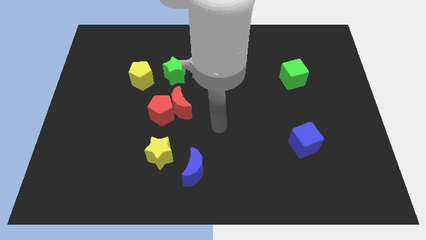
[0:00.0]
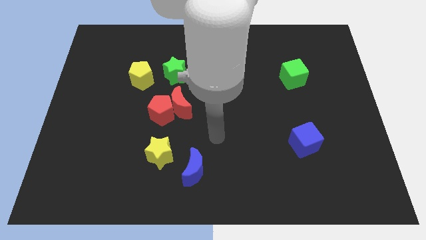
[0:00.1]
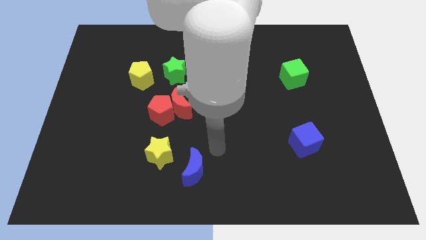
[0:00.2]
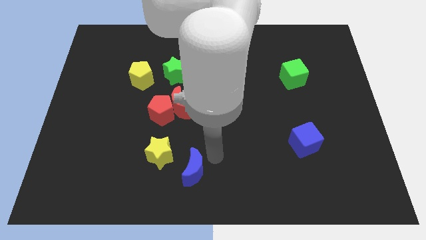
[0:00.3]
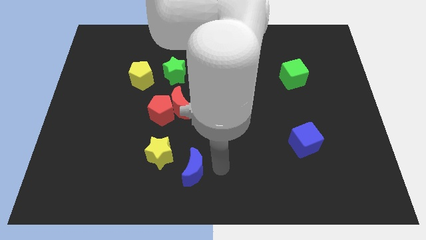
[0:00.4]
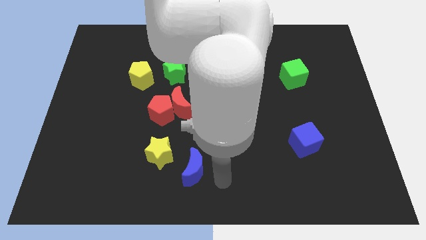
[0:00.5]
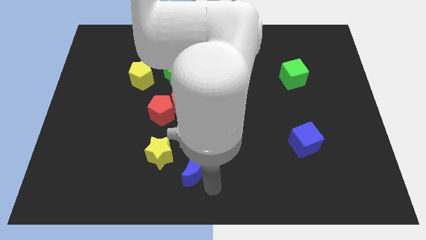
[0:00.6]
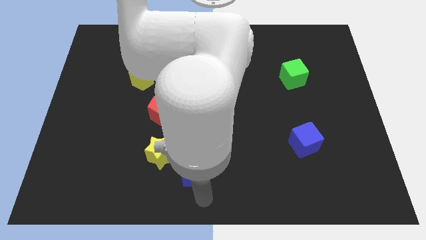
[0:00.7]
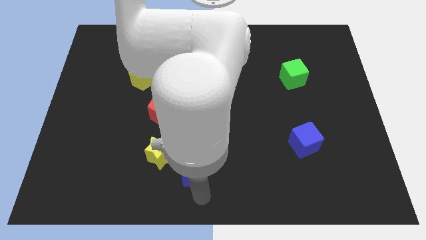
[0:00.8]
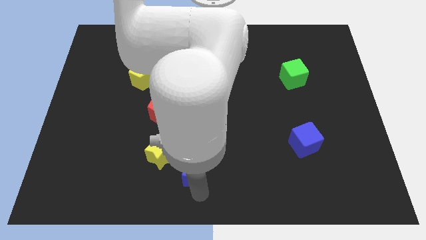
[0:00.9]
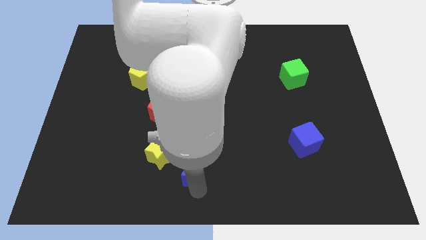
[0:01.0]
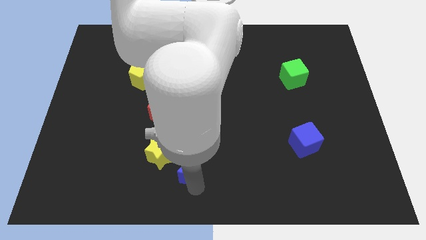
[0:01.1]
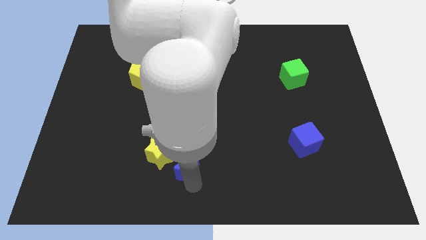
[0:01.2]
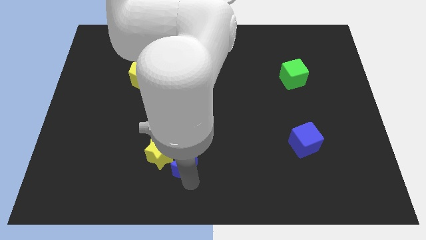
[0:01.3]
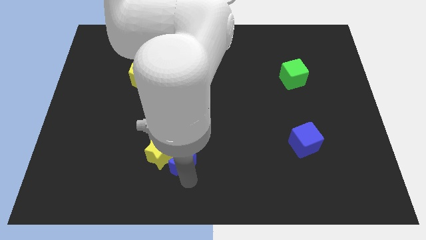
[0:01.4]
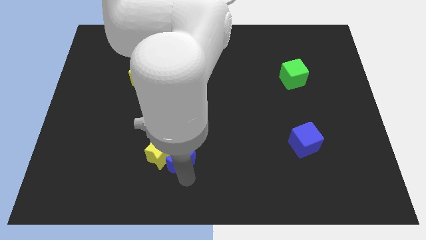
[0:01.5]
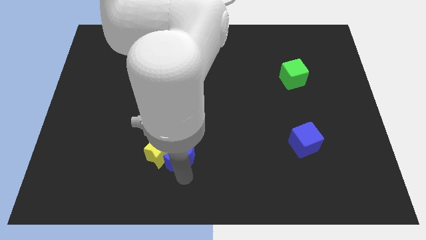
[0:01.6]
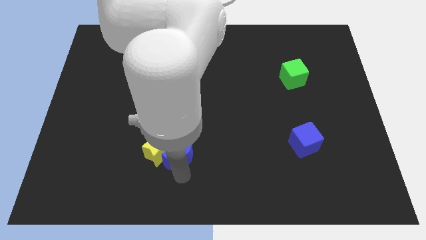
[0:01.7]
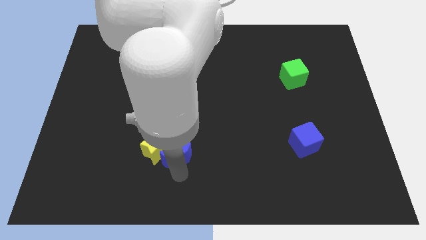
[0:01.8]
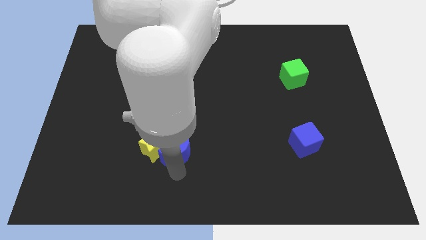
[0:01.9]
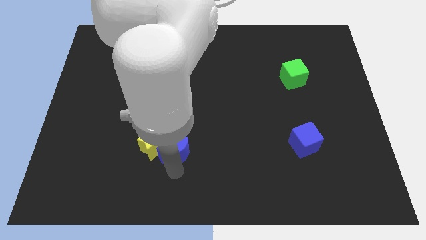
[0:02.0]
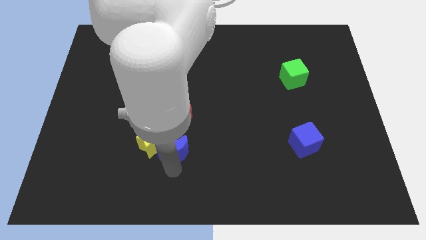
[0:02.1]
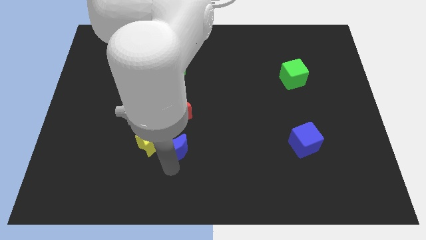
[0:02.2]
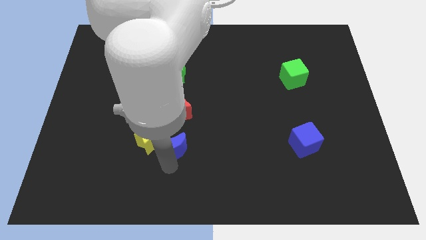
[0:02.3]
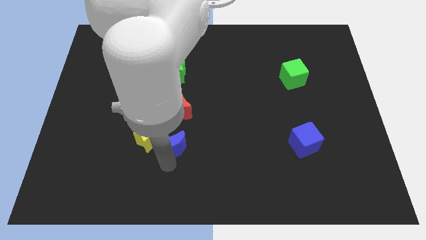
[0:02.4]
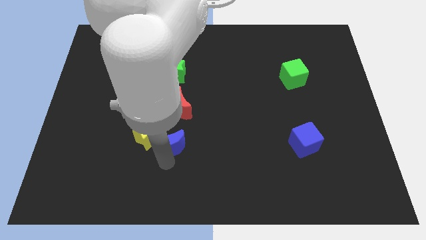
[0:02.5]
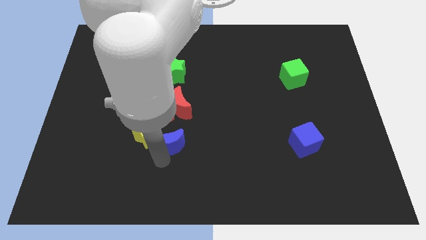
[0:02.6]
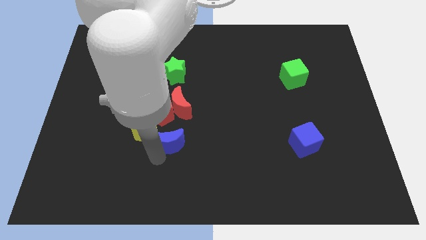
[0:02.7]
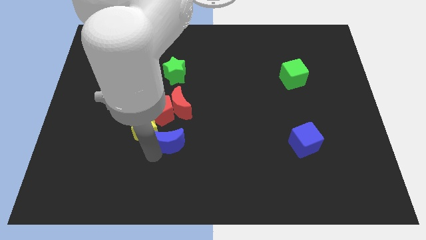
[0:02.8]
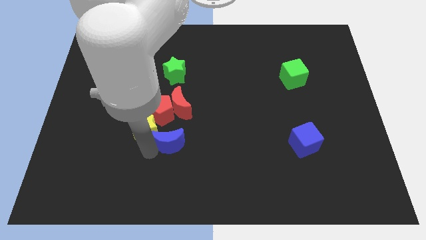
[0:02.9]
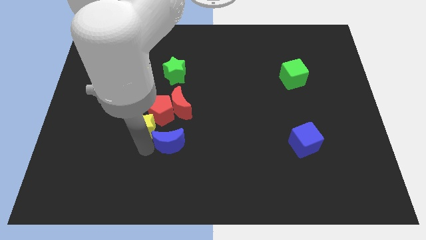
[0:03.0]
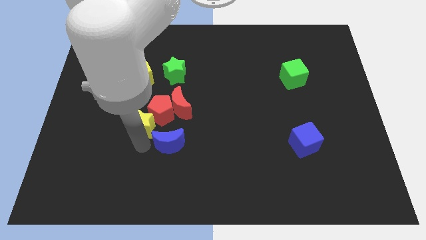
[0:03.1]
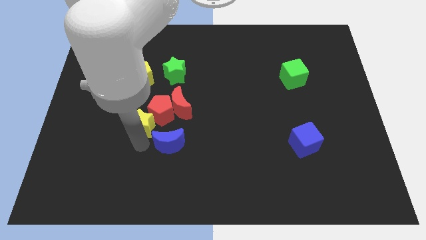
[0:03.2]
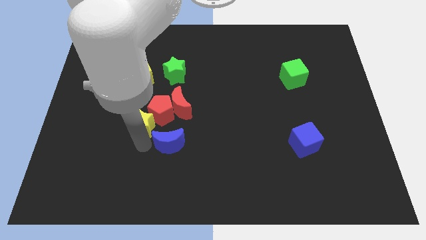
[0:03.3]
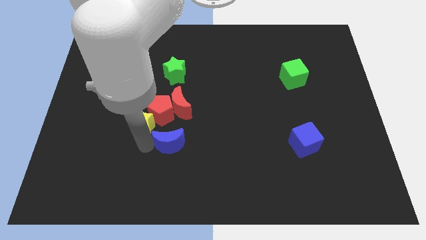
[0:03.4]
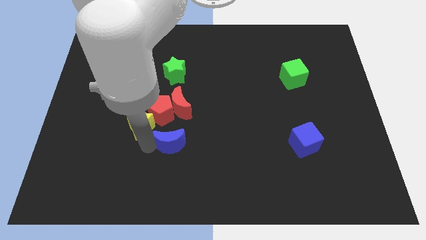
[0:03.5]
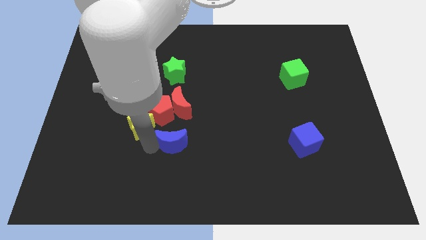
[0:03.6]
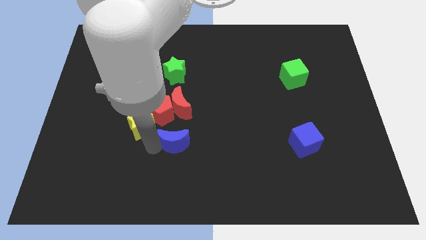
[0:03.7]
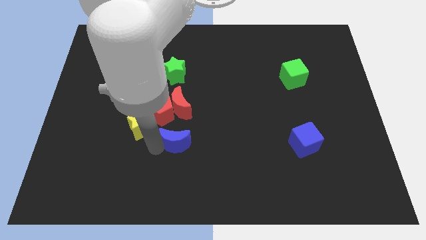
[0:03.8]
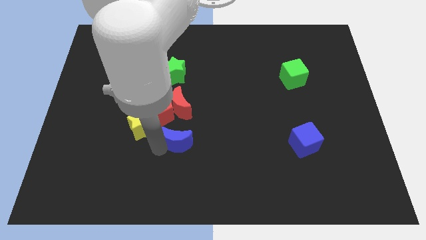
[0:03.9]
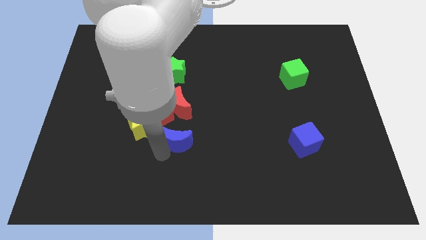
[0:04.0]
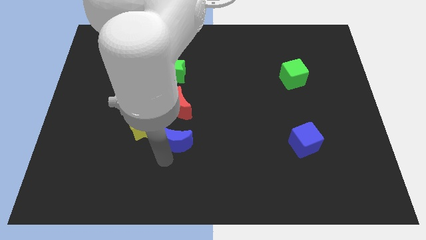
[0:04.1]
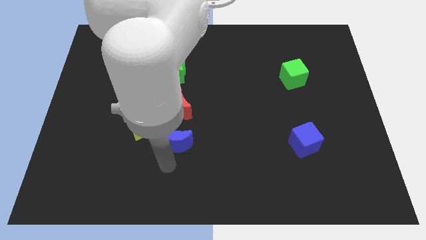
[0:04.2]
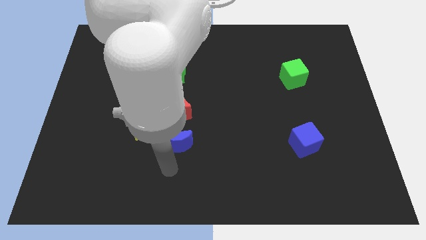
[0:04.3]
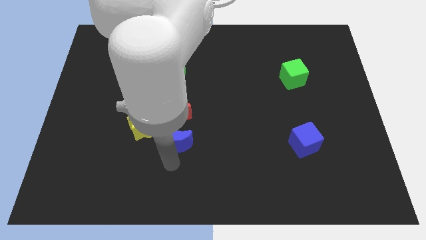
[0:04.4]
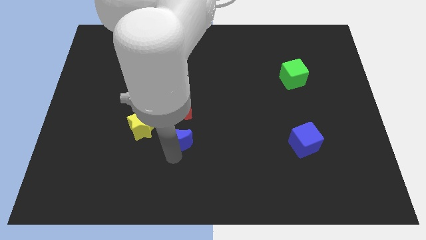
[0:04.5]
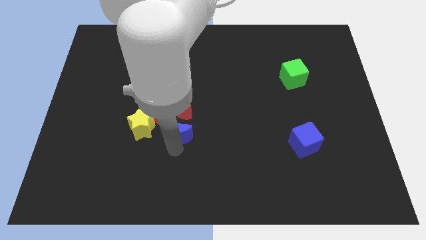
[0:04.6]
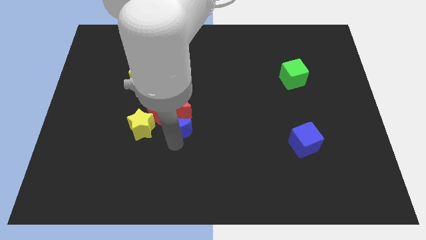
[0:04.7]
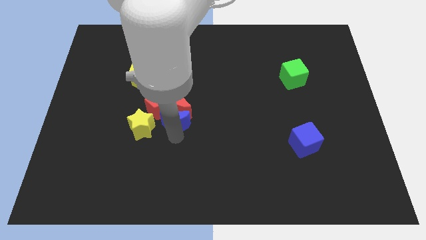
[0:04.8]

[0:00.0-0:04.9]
move the blue moon to the red moon

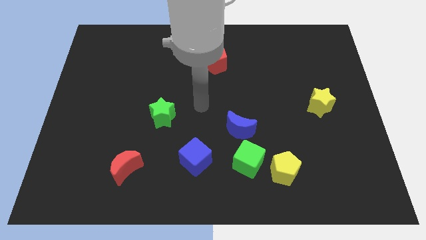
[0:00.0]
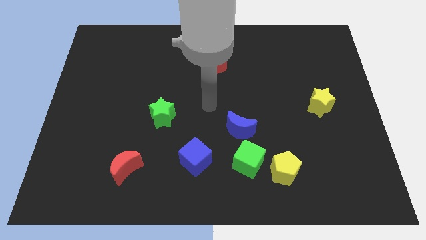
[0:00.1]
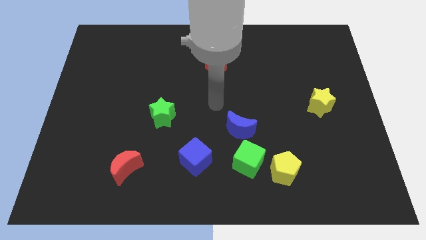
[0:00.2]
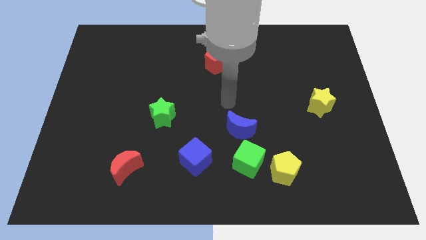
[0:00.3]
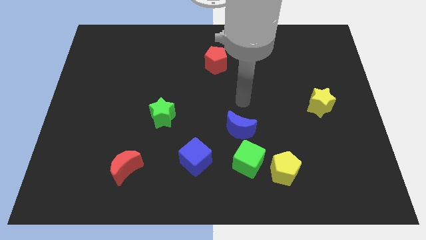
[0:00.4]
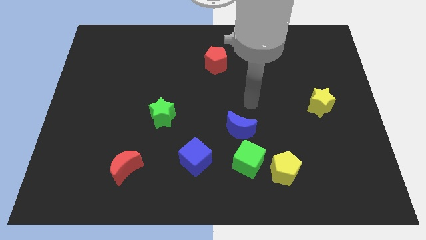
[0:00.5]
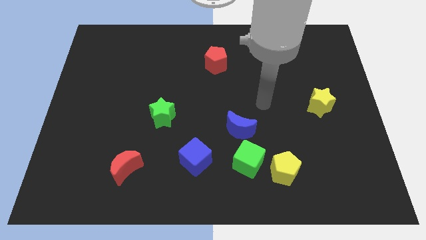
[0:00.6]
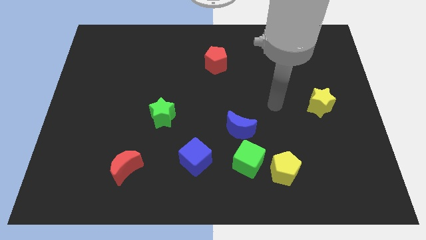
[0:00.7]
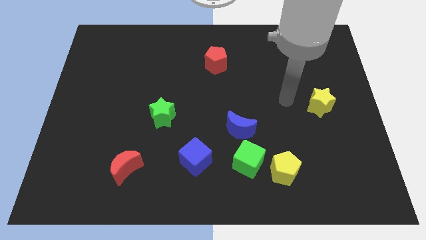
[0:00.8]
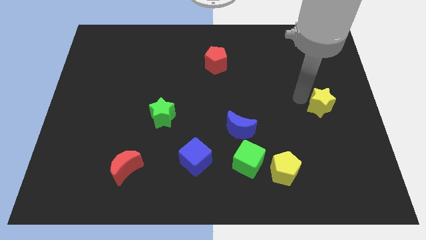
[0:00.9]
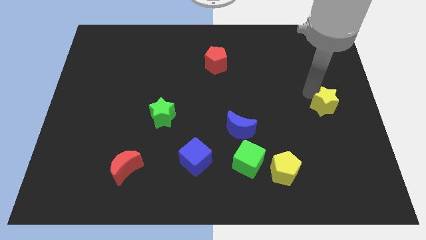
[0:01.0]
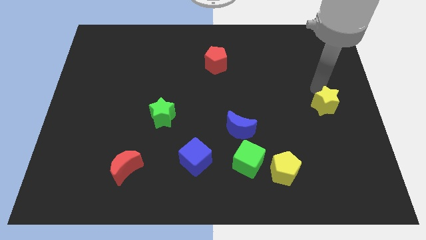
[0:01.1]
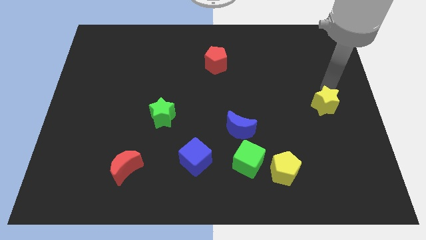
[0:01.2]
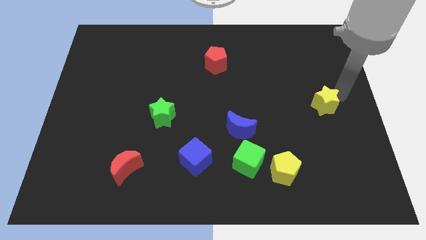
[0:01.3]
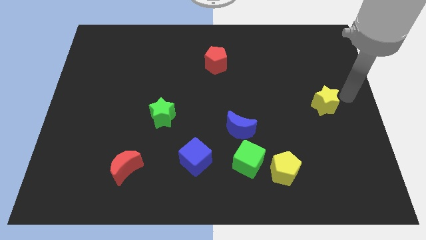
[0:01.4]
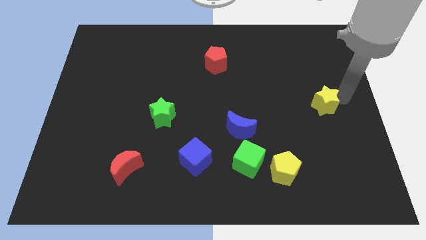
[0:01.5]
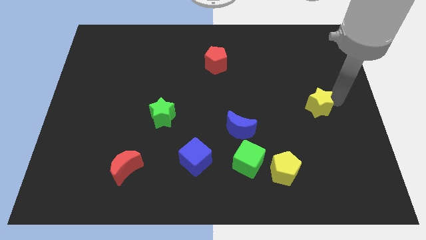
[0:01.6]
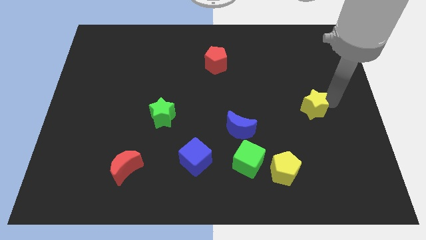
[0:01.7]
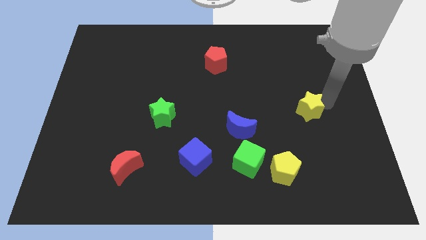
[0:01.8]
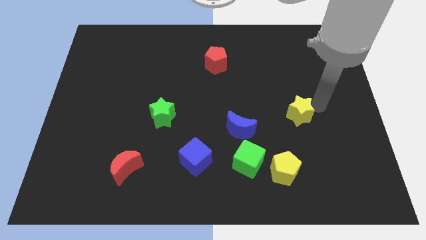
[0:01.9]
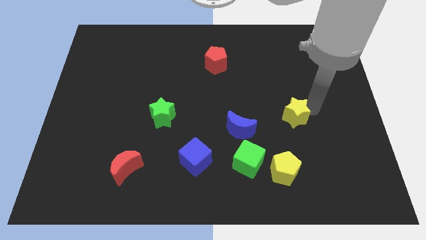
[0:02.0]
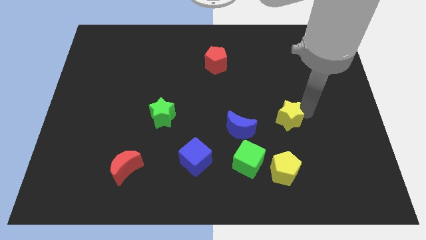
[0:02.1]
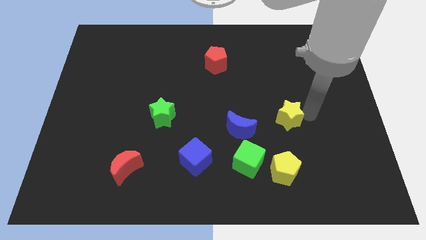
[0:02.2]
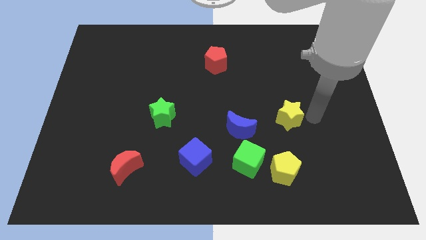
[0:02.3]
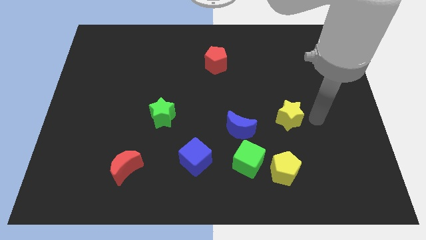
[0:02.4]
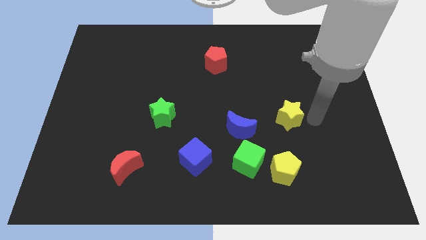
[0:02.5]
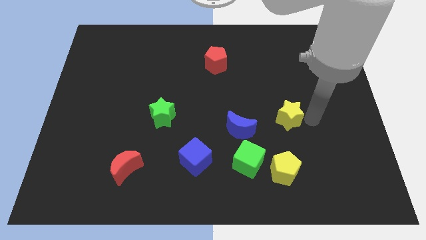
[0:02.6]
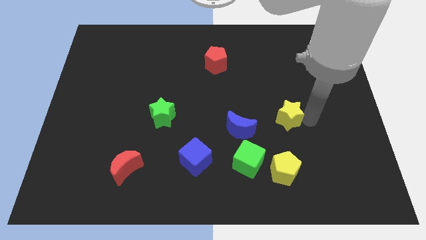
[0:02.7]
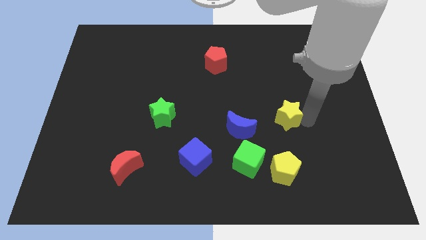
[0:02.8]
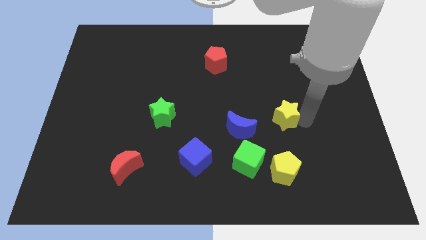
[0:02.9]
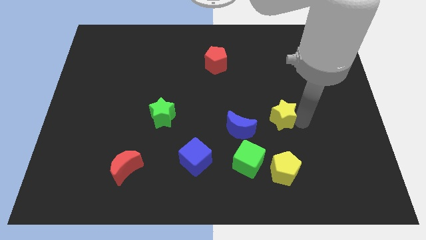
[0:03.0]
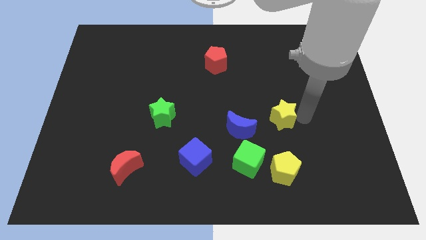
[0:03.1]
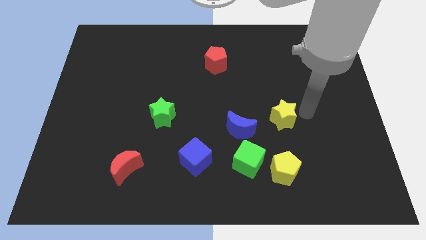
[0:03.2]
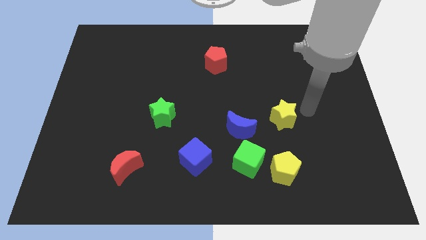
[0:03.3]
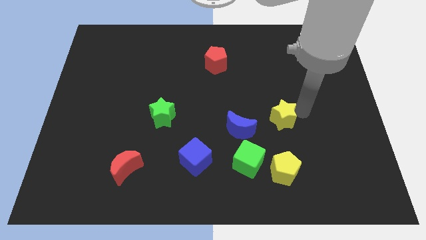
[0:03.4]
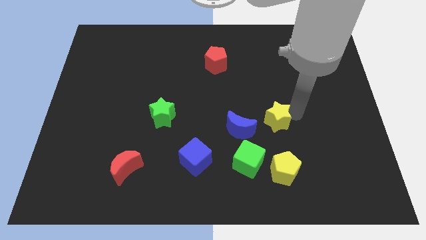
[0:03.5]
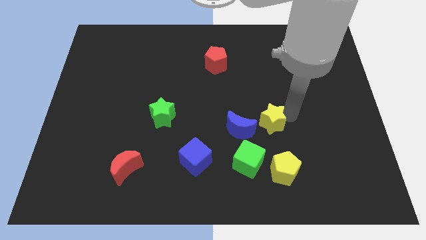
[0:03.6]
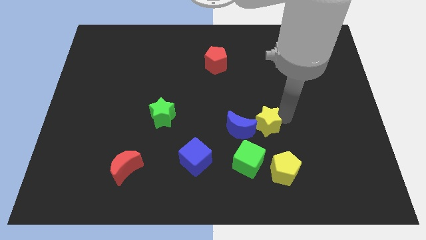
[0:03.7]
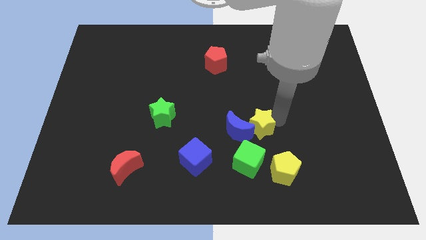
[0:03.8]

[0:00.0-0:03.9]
move the yellow star close to the blue moon
